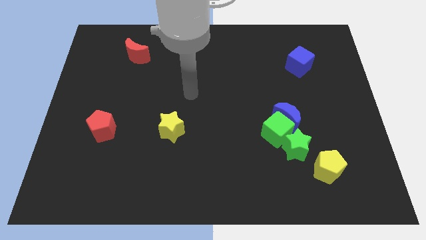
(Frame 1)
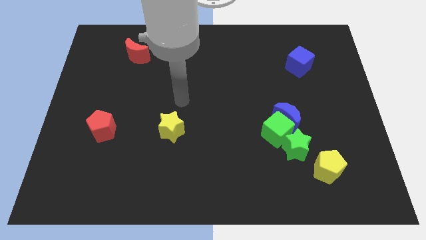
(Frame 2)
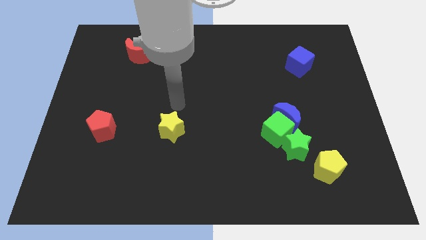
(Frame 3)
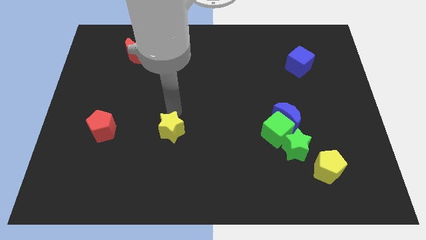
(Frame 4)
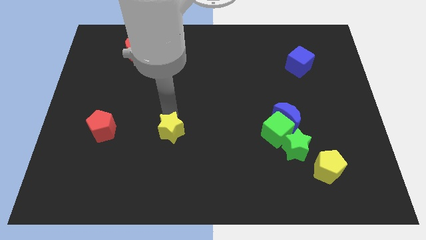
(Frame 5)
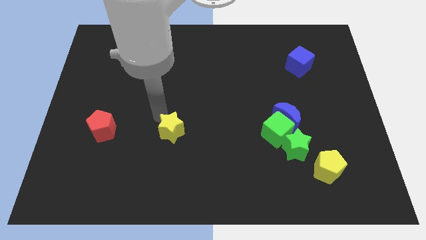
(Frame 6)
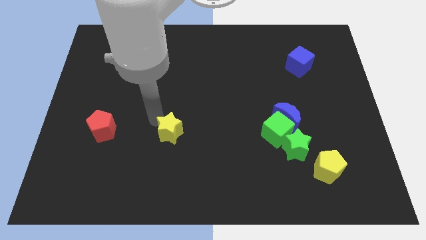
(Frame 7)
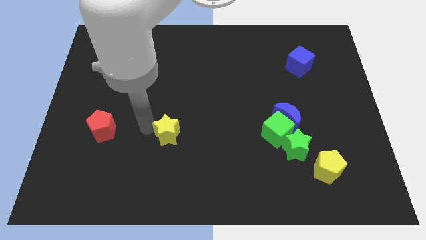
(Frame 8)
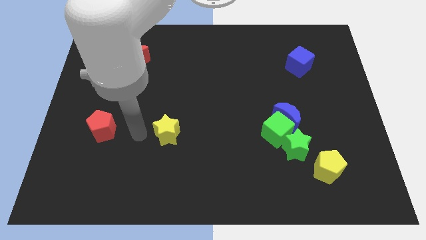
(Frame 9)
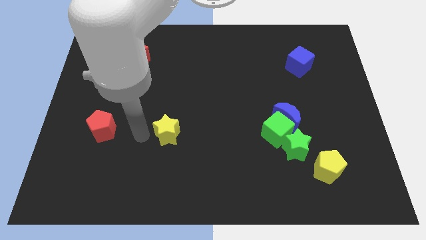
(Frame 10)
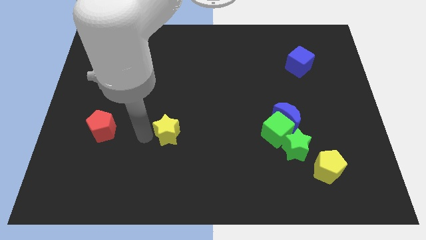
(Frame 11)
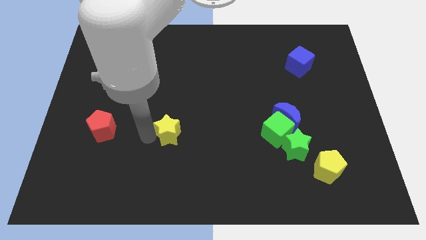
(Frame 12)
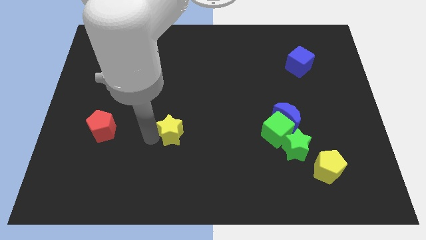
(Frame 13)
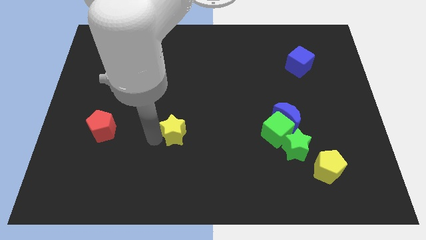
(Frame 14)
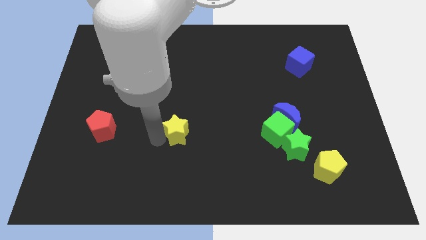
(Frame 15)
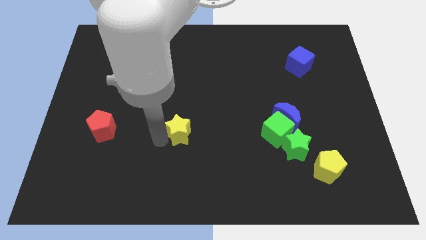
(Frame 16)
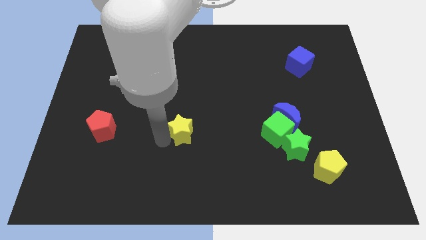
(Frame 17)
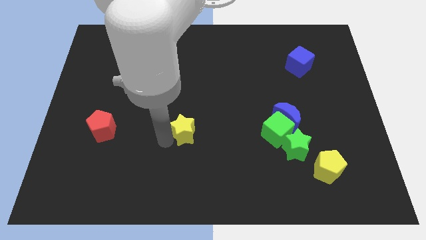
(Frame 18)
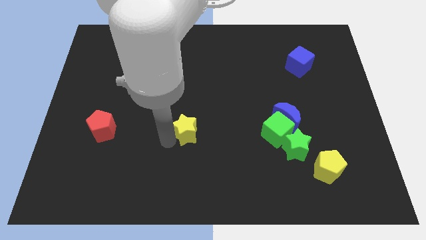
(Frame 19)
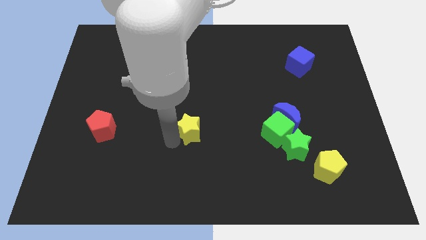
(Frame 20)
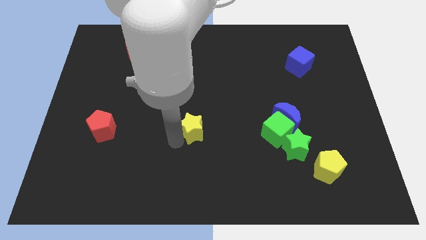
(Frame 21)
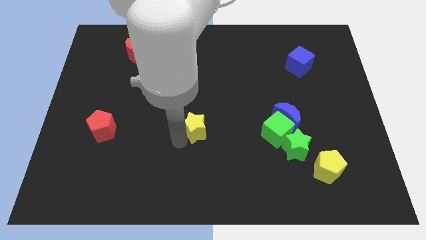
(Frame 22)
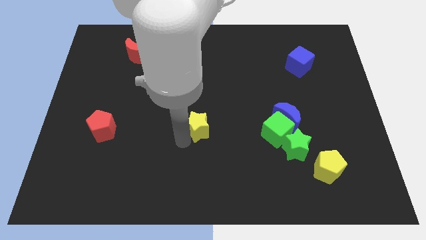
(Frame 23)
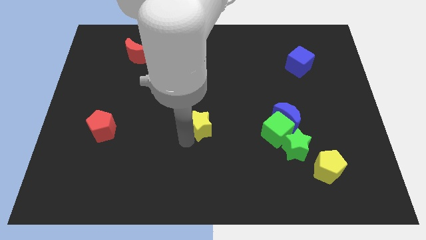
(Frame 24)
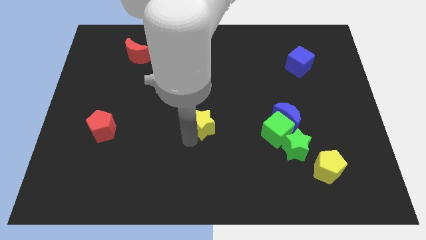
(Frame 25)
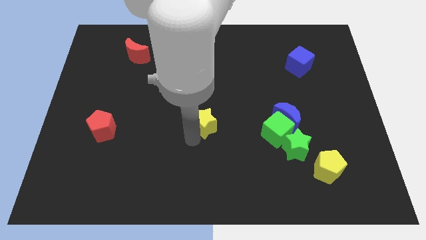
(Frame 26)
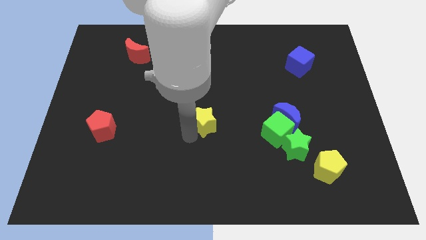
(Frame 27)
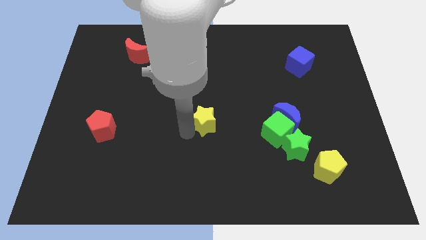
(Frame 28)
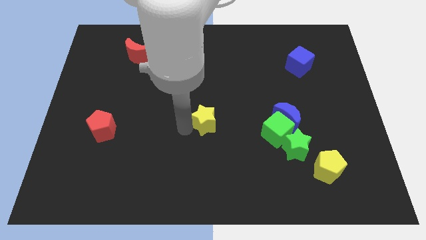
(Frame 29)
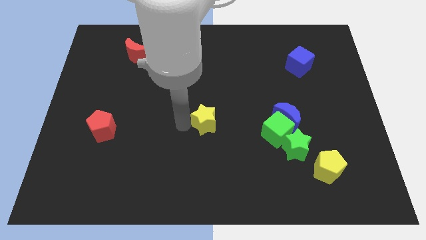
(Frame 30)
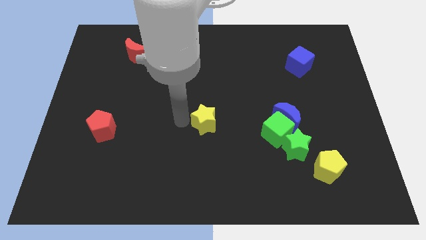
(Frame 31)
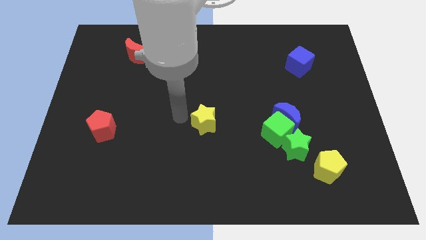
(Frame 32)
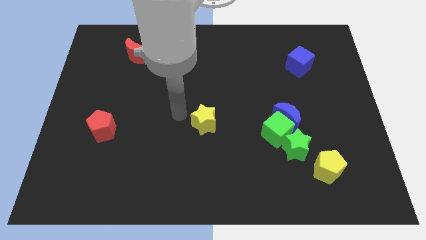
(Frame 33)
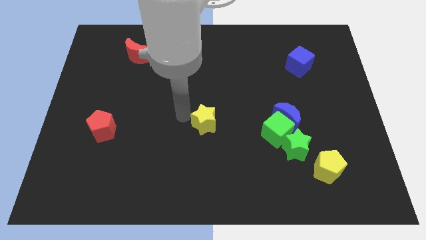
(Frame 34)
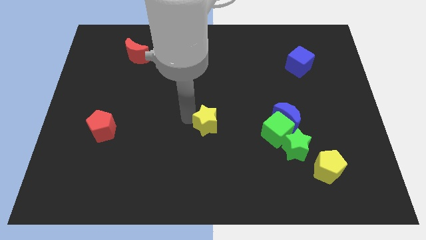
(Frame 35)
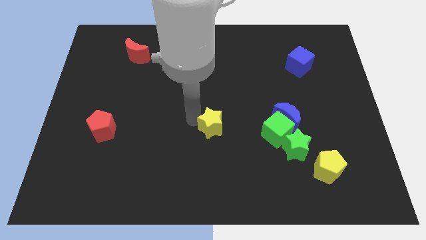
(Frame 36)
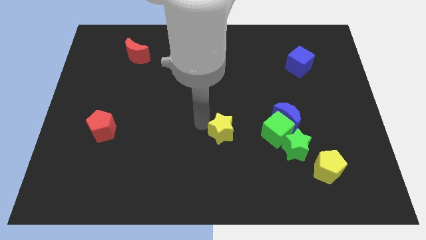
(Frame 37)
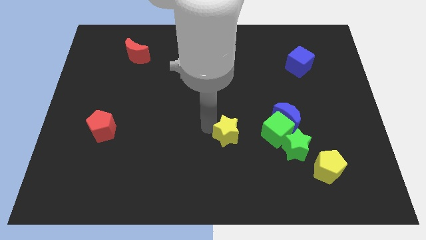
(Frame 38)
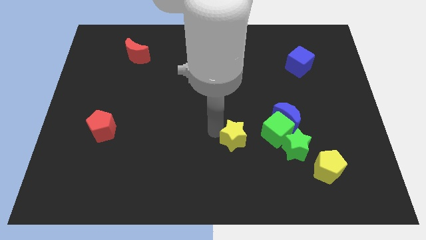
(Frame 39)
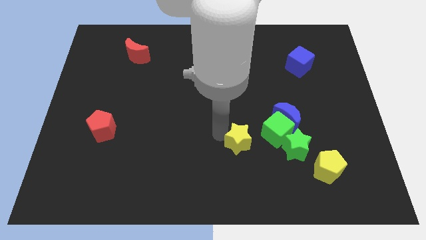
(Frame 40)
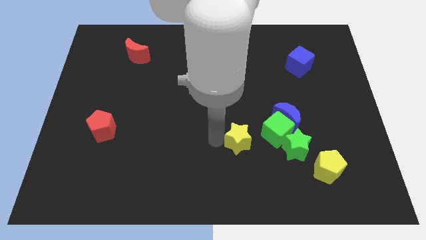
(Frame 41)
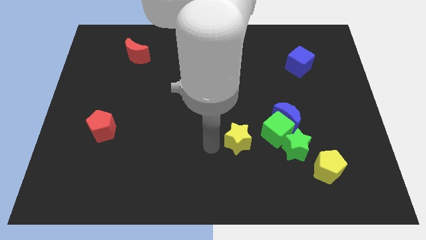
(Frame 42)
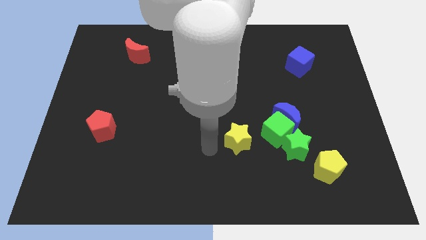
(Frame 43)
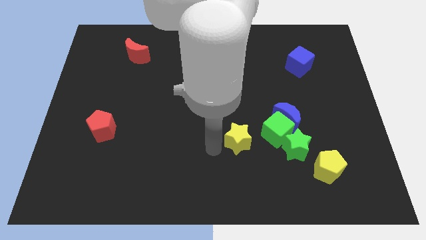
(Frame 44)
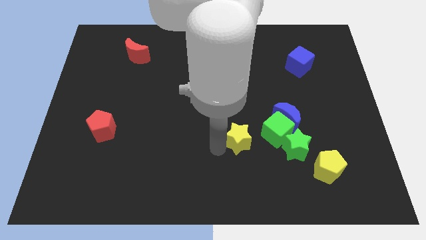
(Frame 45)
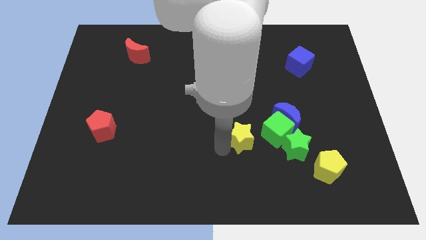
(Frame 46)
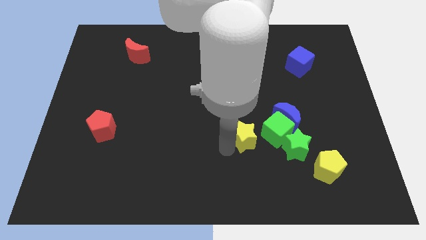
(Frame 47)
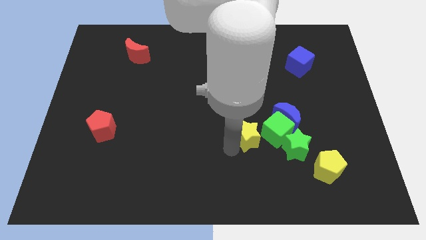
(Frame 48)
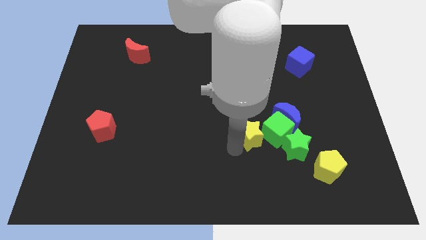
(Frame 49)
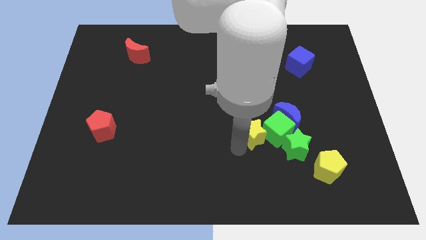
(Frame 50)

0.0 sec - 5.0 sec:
push the yellow star next to the green cube

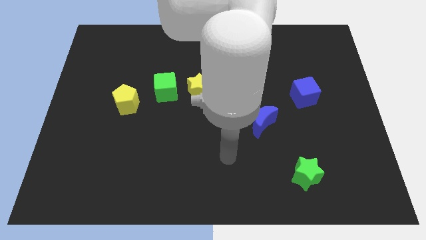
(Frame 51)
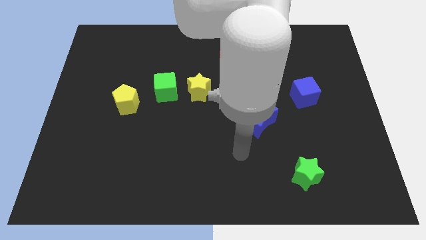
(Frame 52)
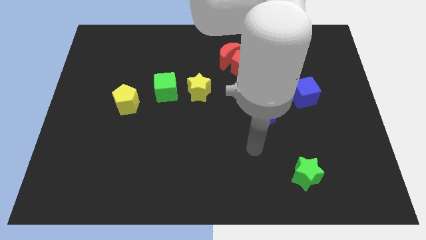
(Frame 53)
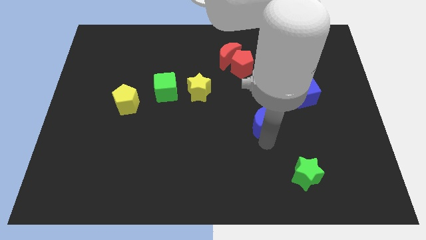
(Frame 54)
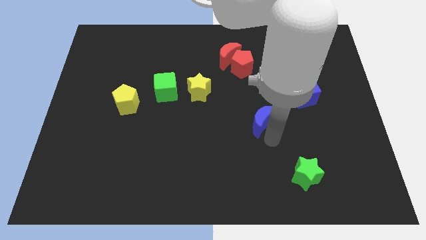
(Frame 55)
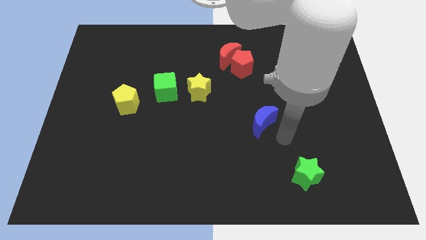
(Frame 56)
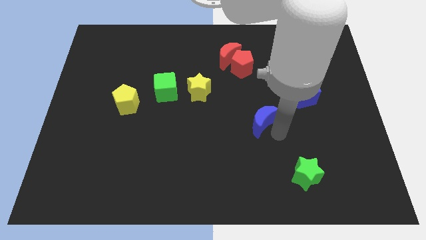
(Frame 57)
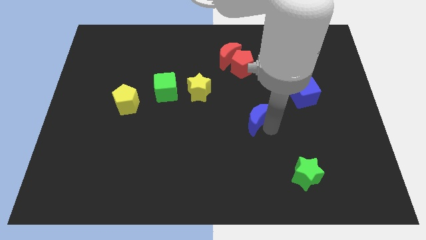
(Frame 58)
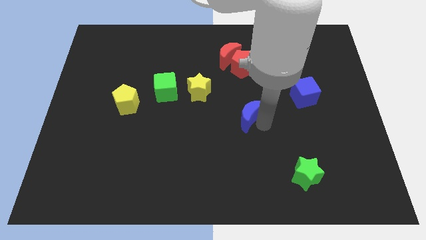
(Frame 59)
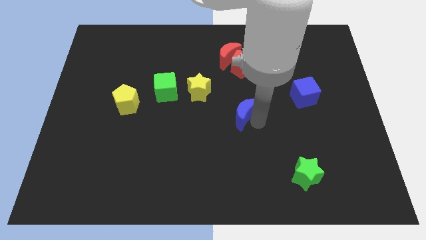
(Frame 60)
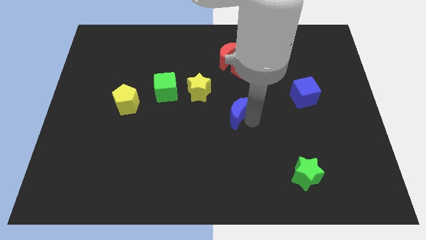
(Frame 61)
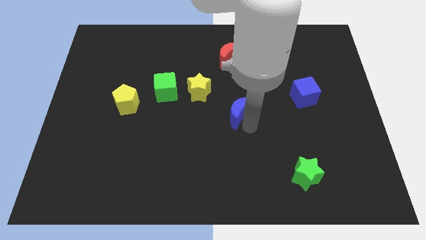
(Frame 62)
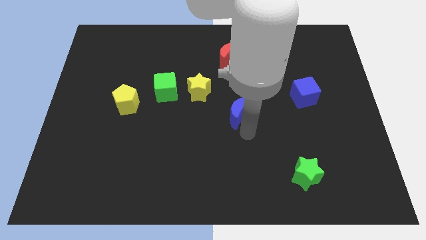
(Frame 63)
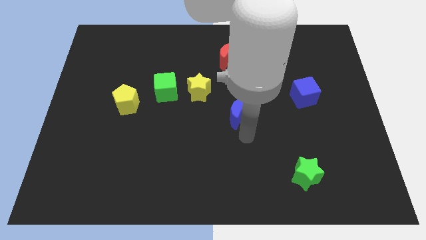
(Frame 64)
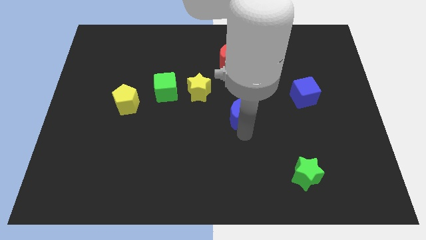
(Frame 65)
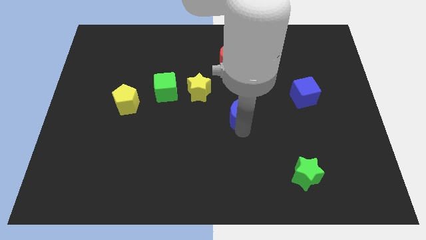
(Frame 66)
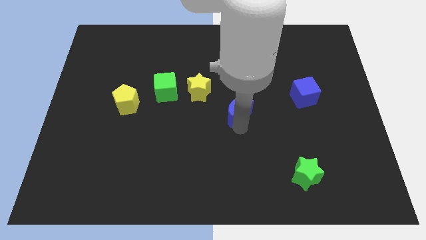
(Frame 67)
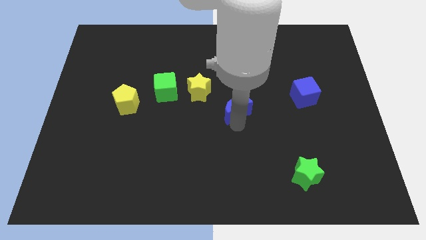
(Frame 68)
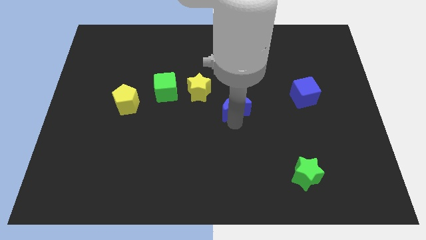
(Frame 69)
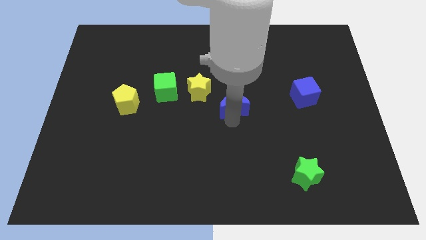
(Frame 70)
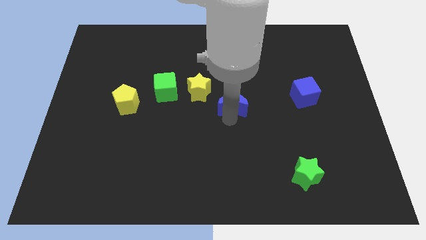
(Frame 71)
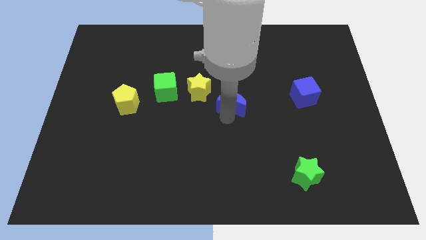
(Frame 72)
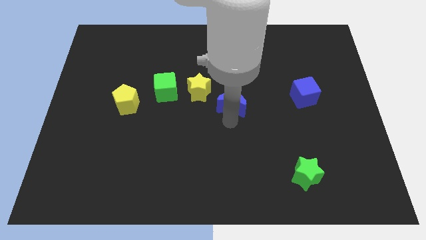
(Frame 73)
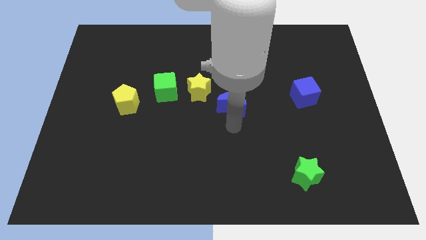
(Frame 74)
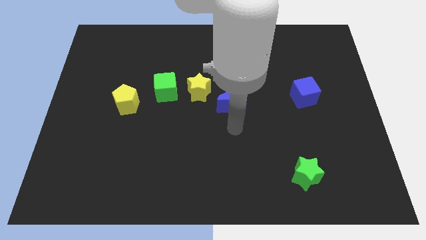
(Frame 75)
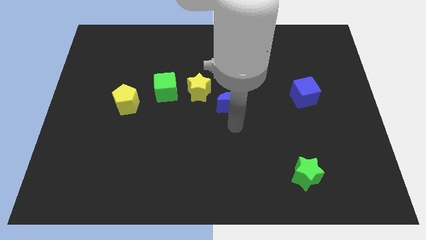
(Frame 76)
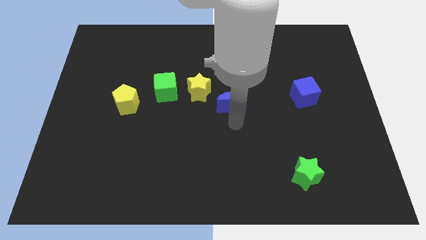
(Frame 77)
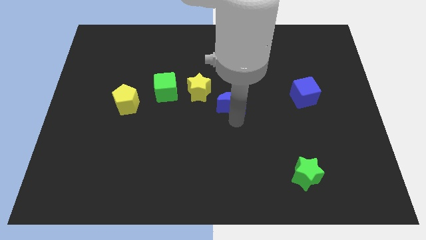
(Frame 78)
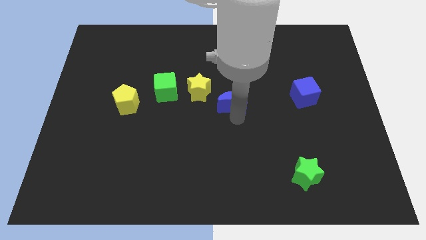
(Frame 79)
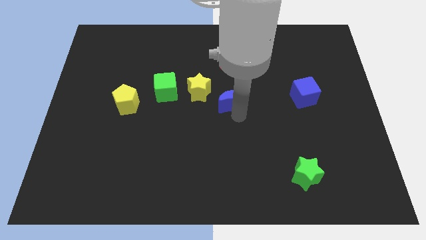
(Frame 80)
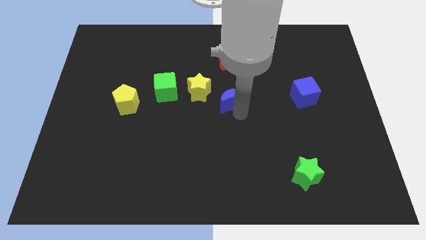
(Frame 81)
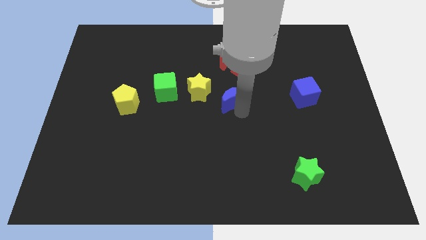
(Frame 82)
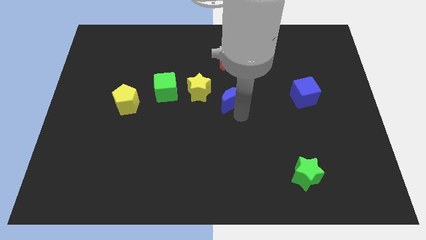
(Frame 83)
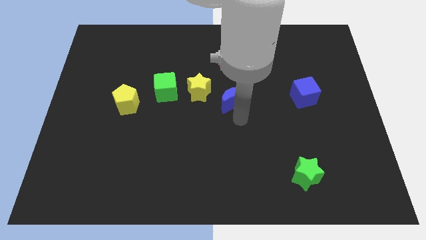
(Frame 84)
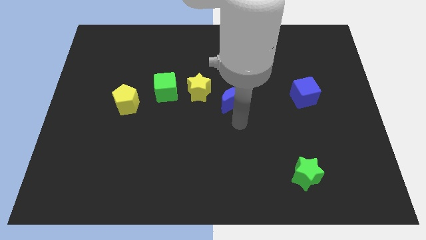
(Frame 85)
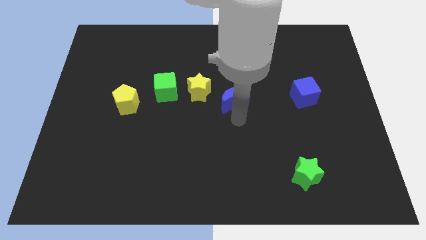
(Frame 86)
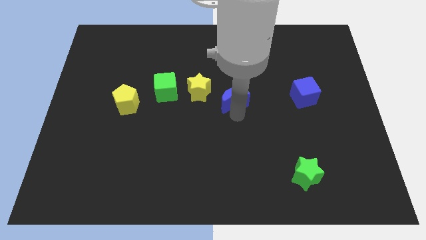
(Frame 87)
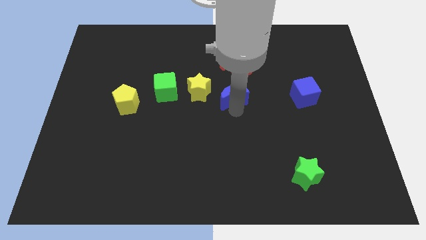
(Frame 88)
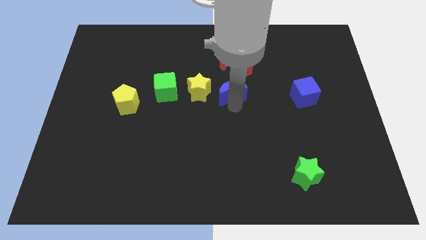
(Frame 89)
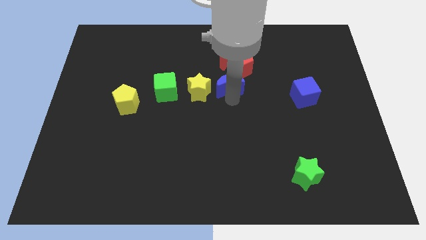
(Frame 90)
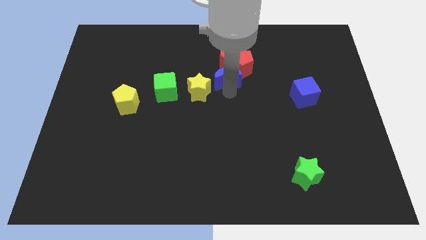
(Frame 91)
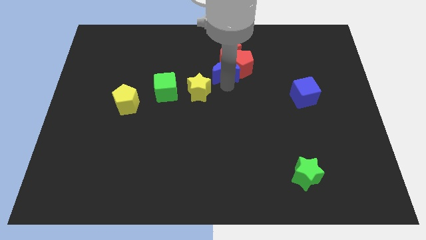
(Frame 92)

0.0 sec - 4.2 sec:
put the blue moon towards the red moon
